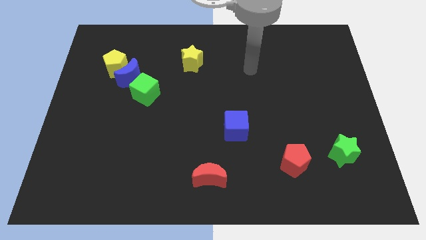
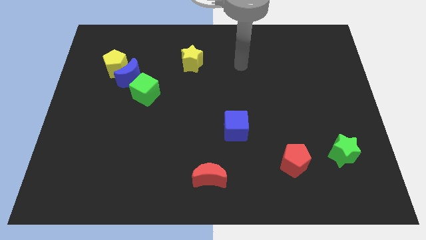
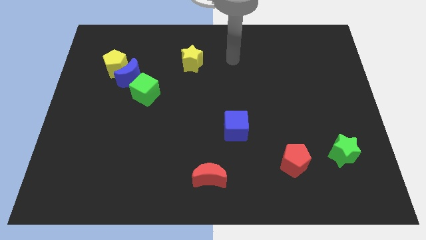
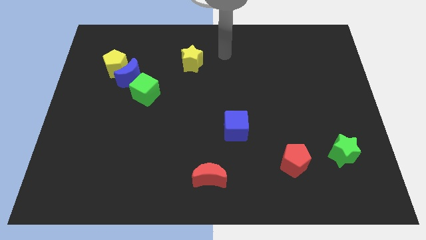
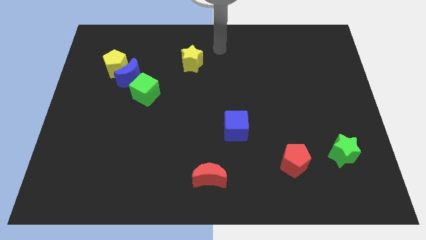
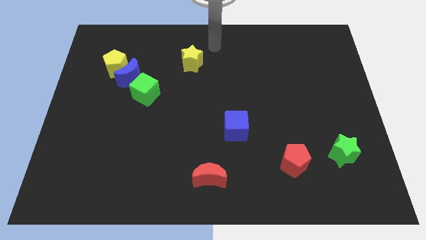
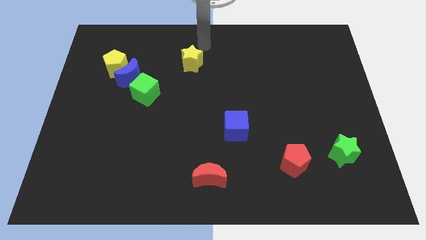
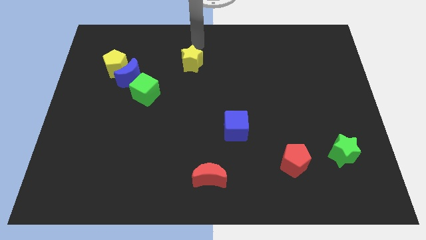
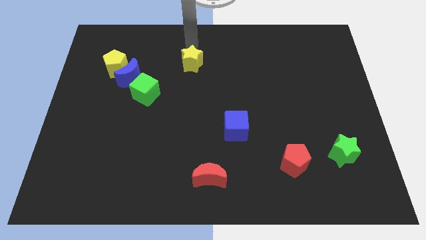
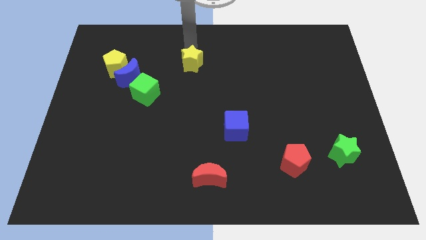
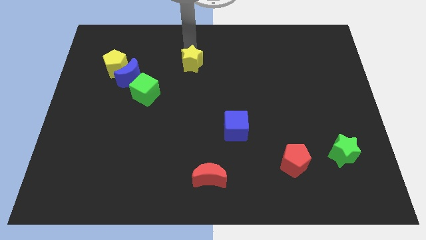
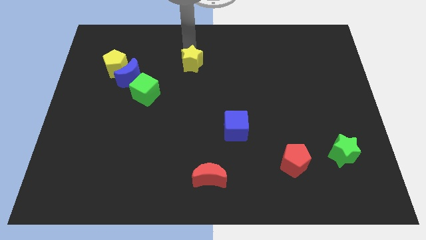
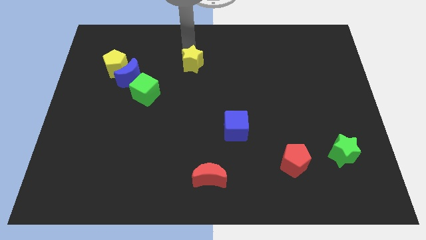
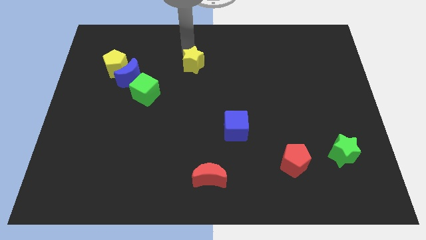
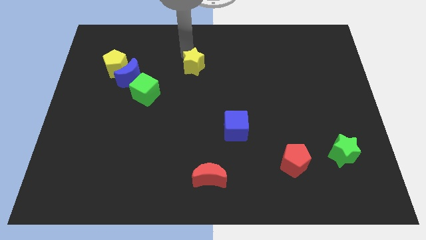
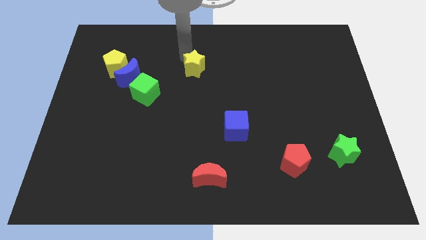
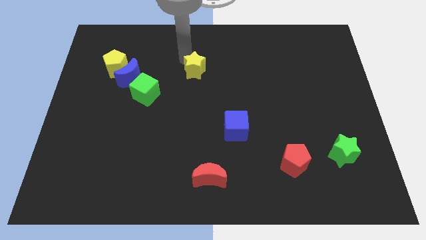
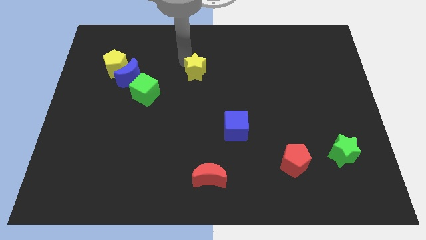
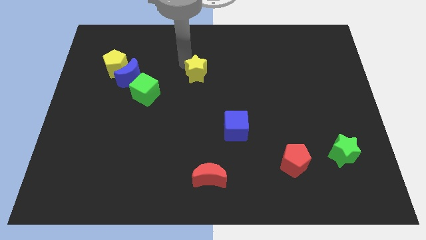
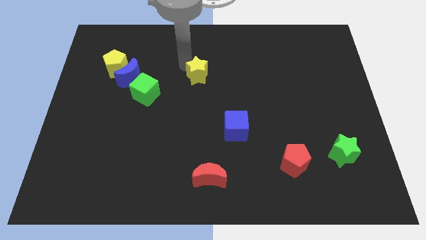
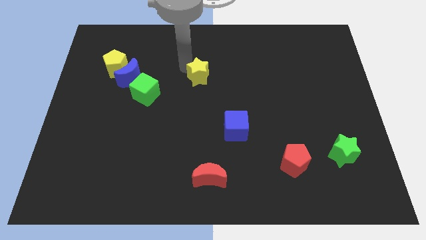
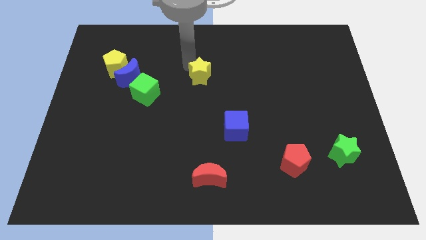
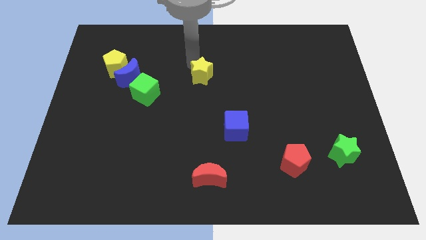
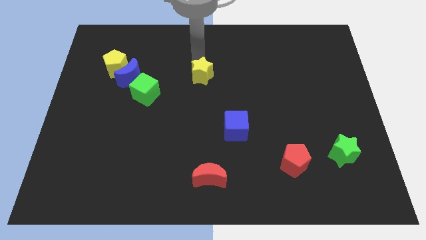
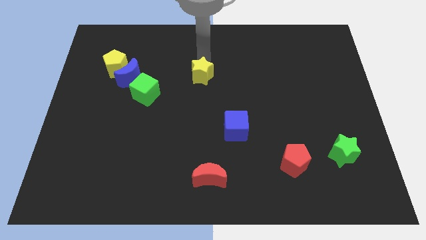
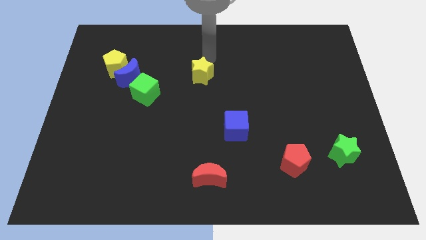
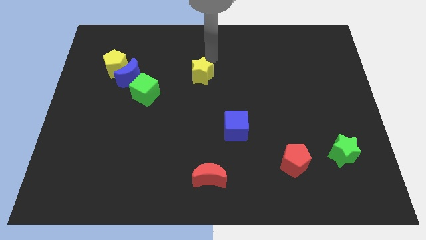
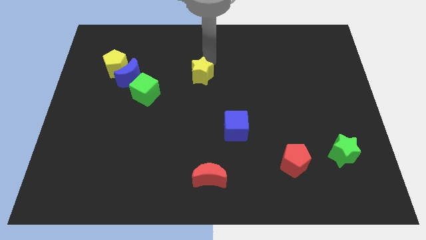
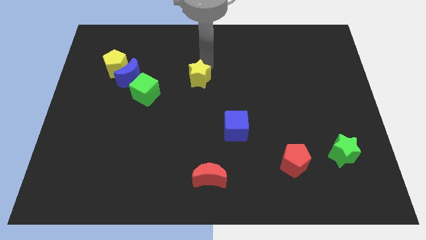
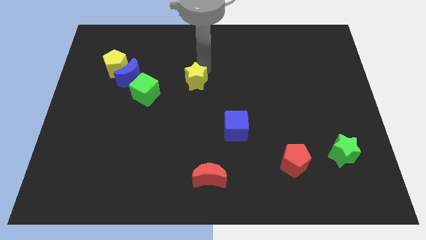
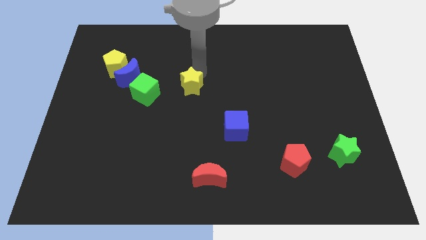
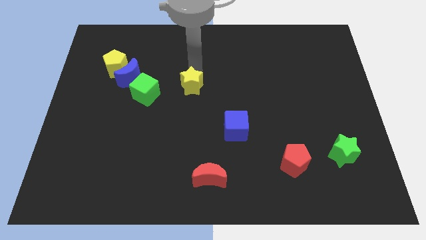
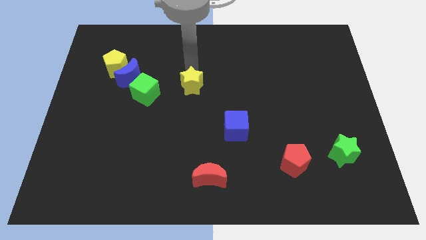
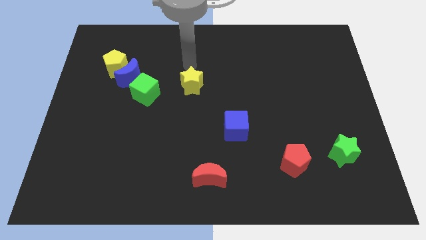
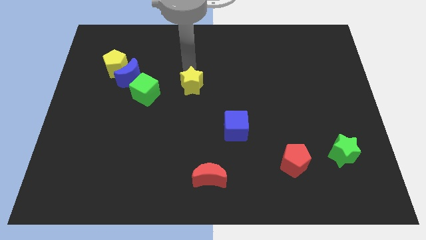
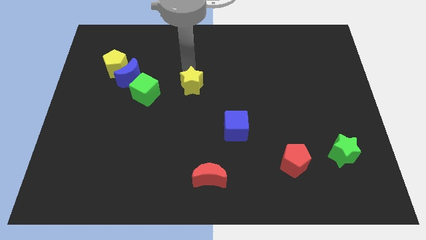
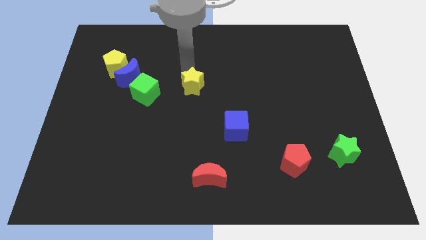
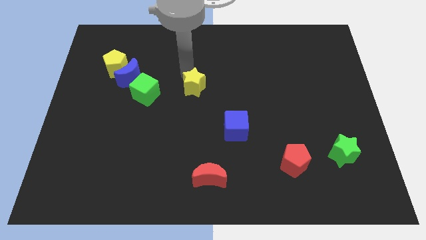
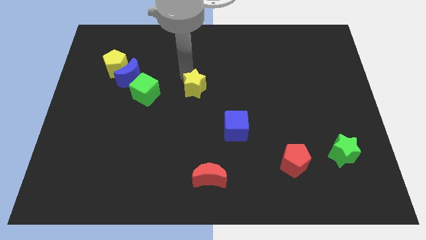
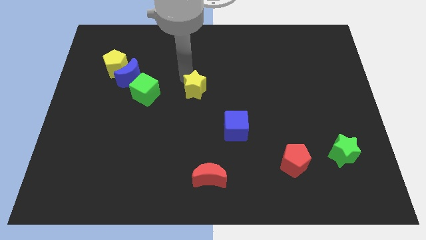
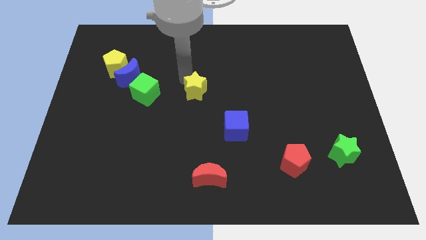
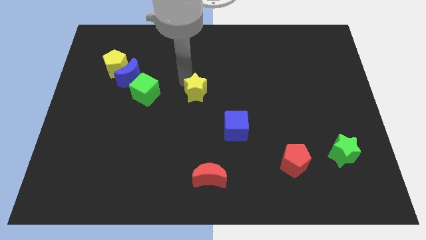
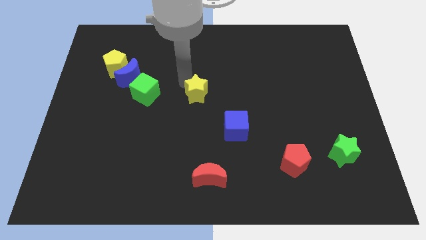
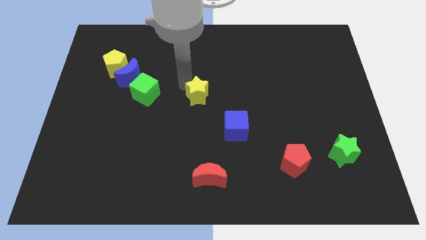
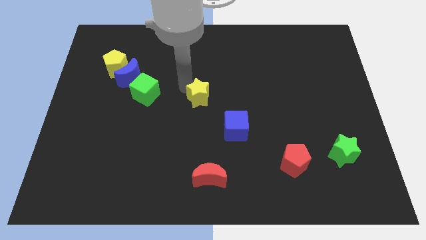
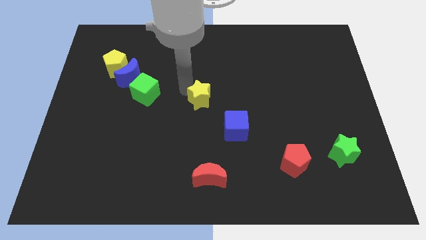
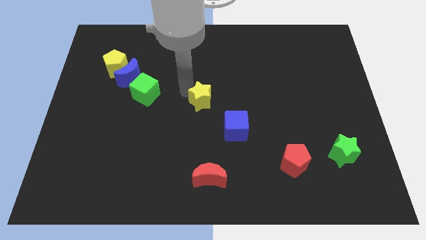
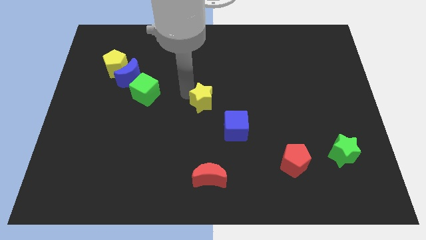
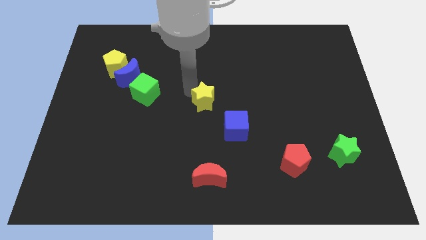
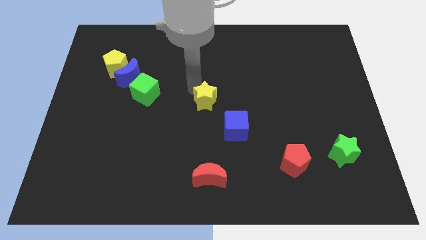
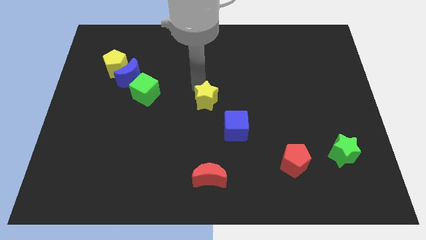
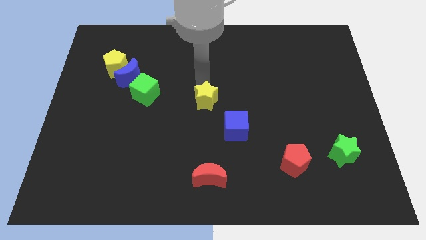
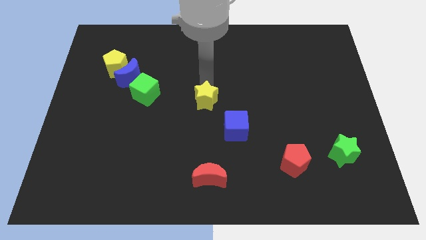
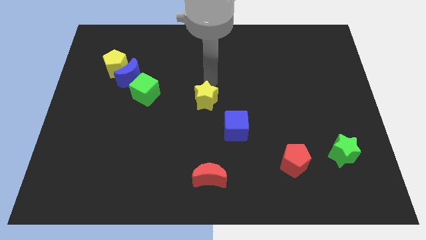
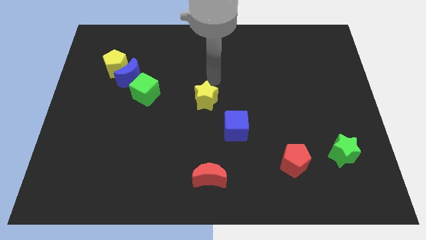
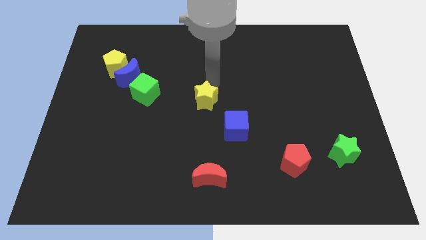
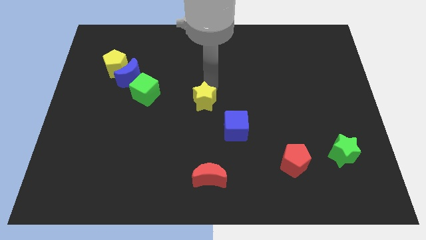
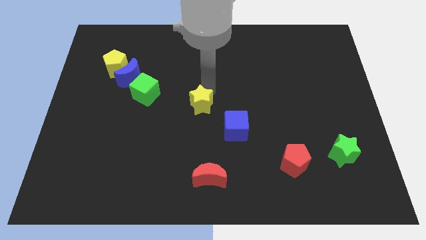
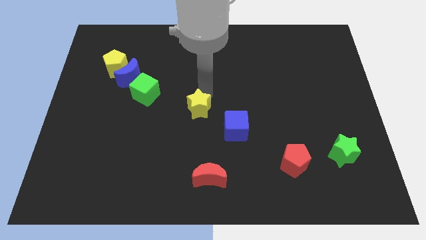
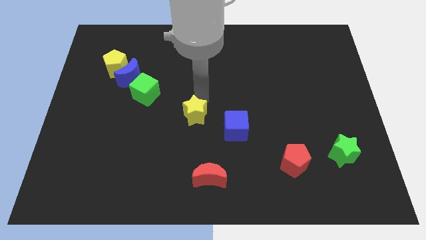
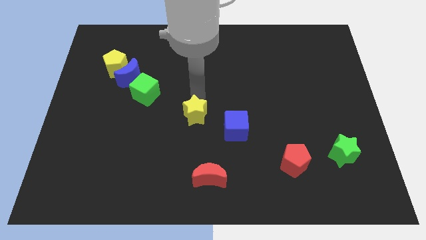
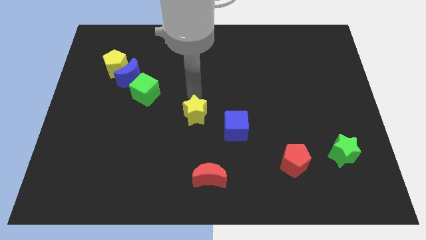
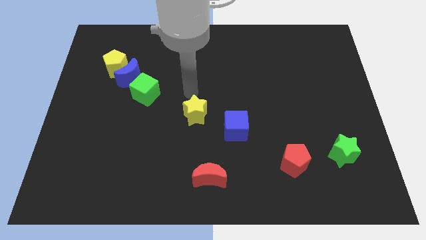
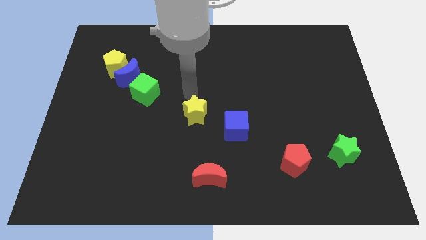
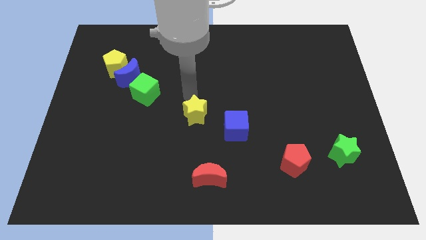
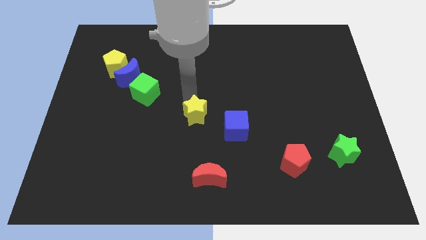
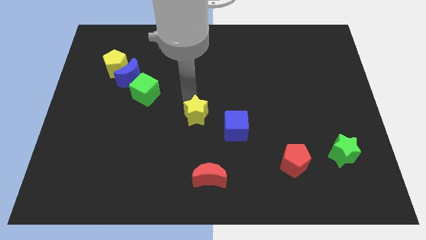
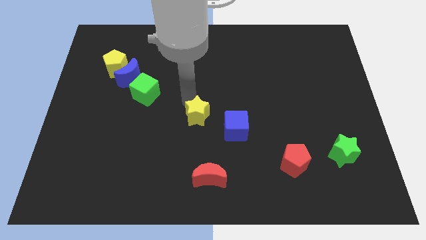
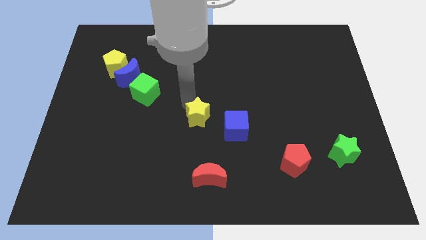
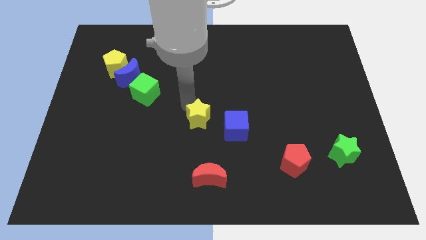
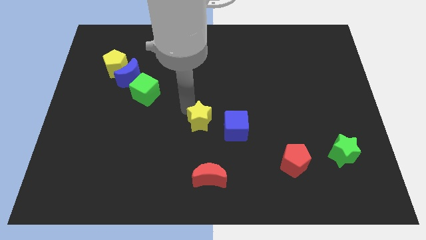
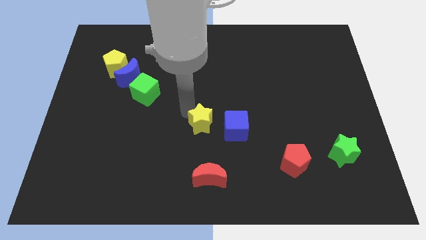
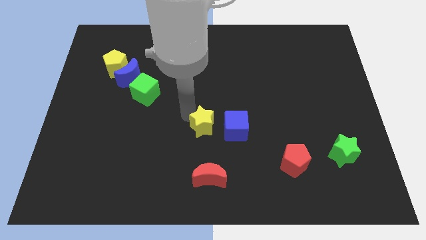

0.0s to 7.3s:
move the yellow star down

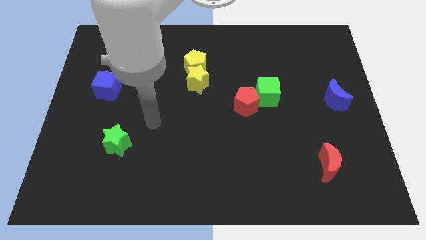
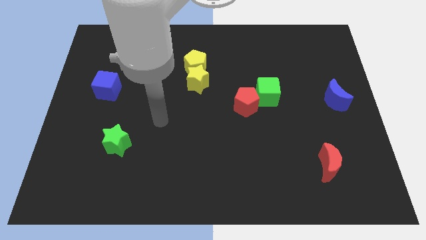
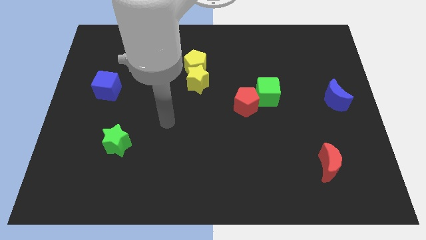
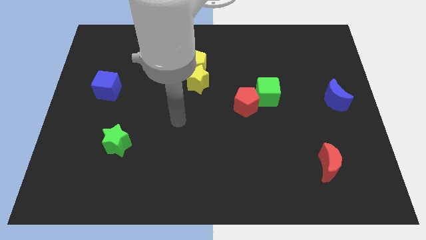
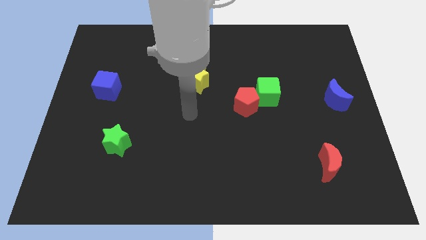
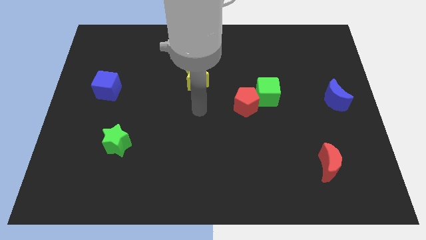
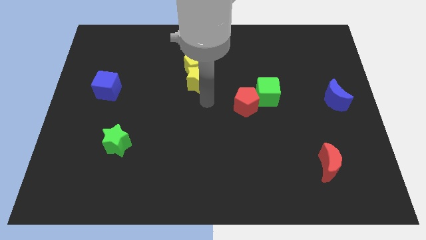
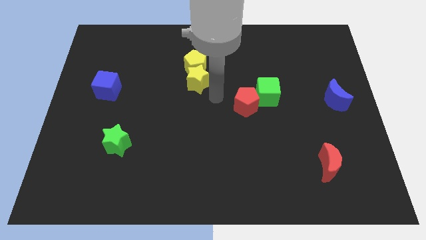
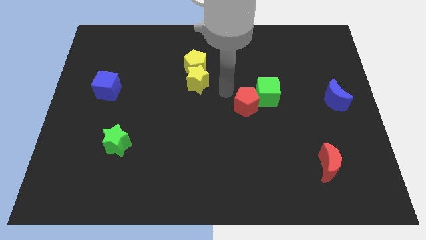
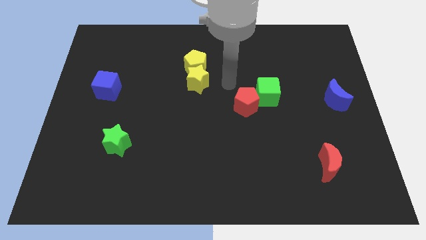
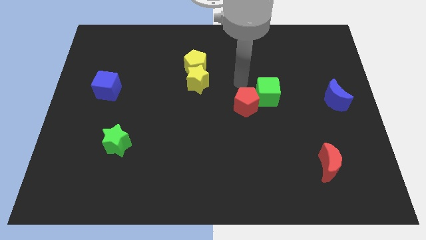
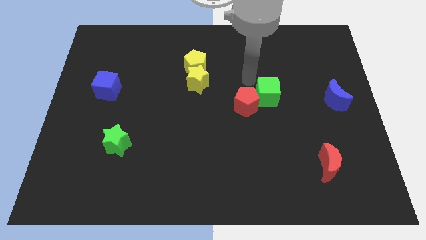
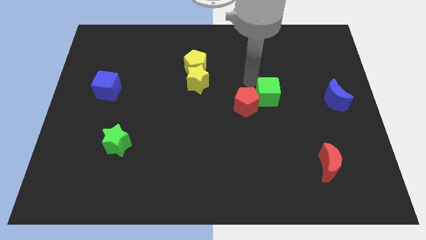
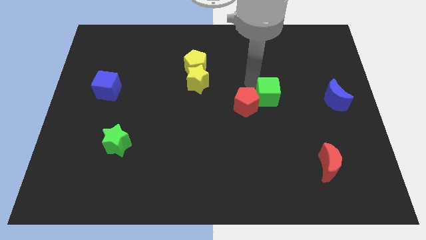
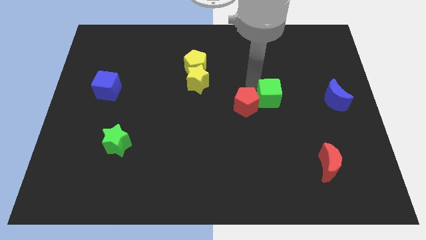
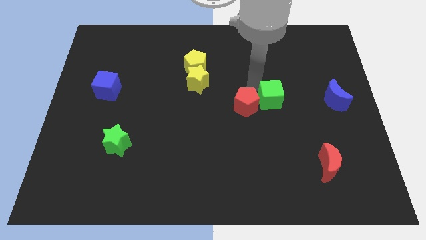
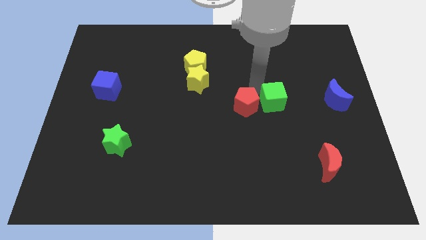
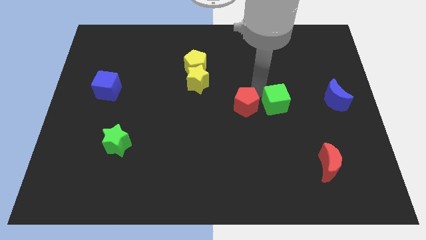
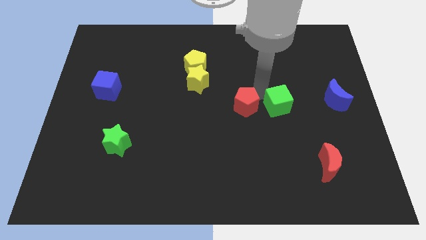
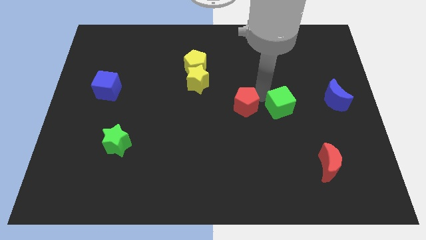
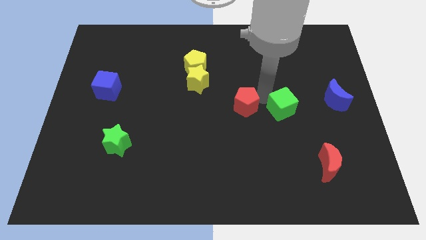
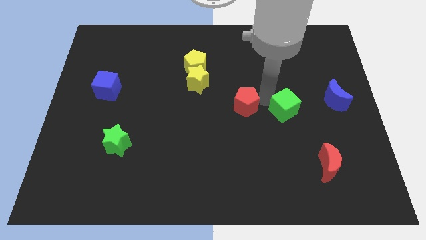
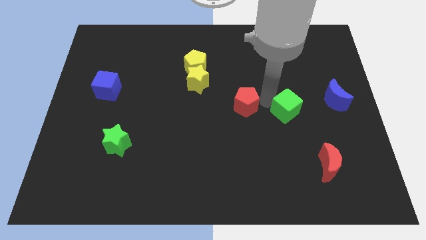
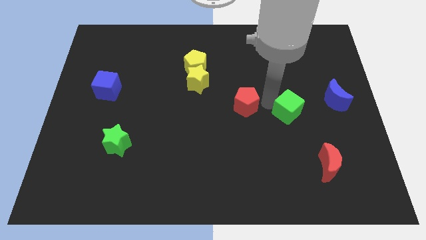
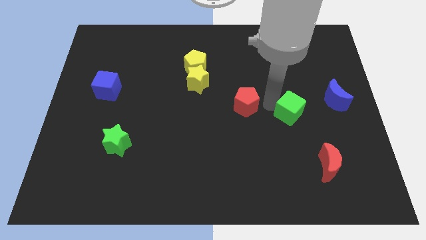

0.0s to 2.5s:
move the green cube somewhat down and to the right diagonally
